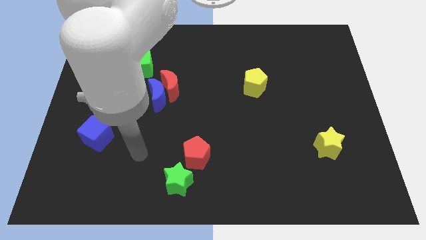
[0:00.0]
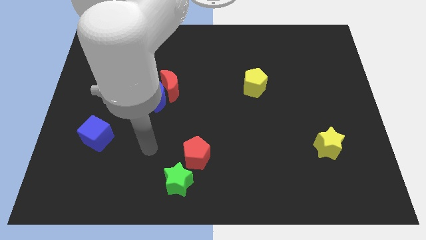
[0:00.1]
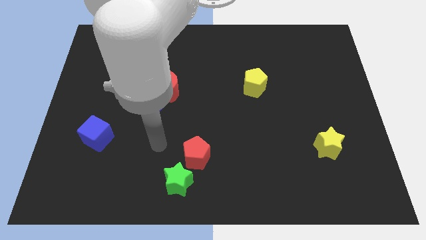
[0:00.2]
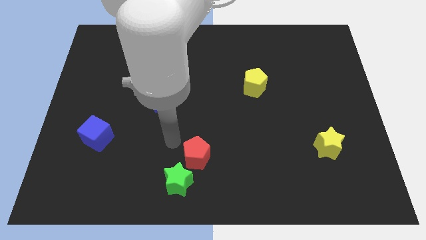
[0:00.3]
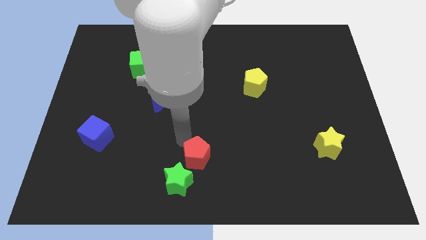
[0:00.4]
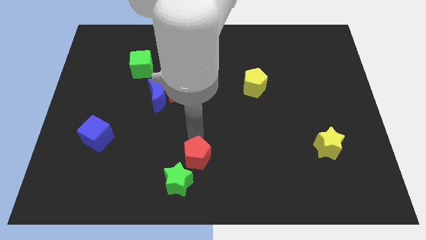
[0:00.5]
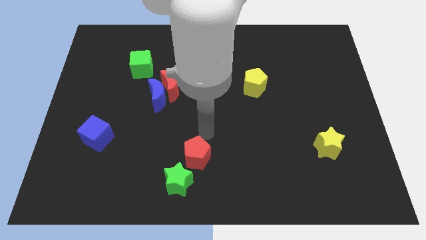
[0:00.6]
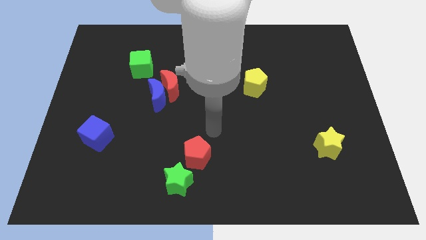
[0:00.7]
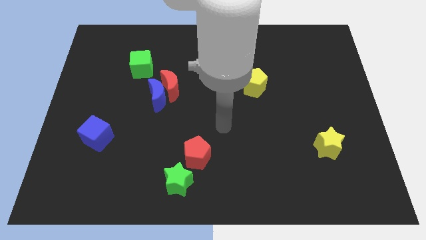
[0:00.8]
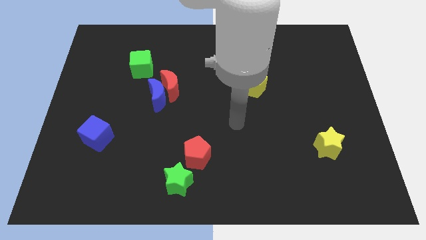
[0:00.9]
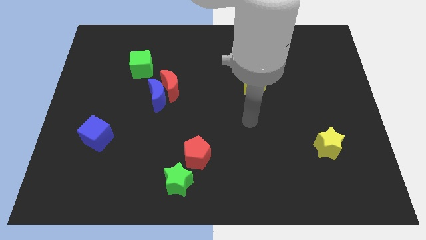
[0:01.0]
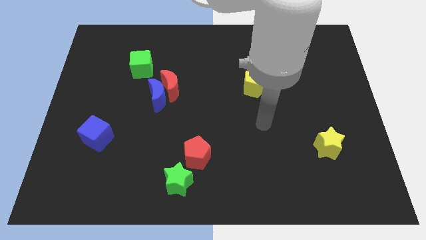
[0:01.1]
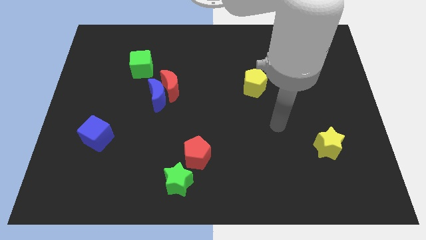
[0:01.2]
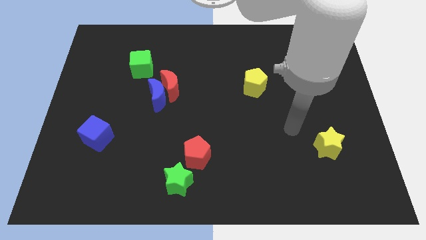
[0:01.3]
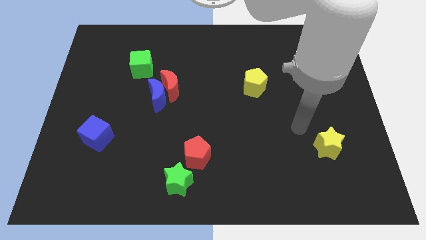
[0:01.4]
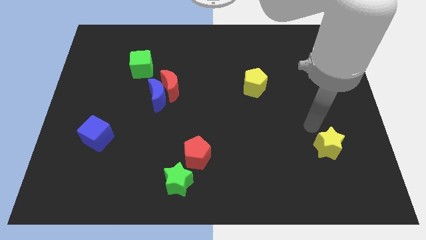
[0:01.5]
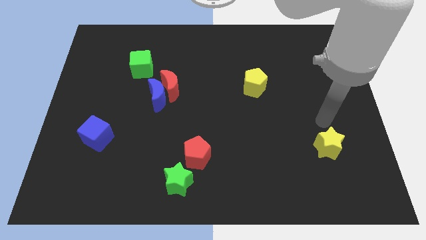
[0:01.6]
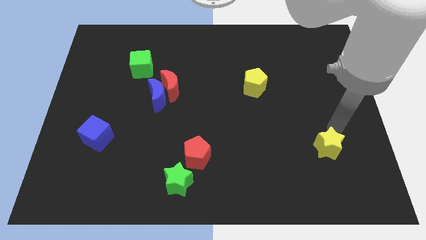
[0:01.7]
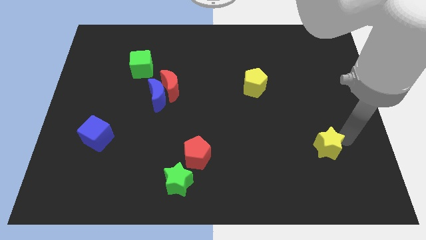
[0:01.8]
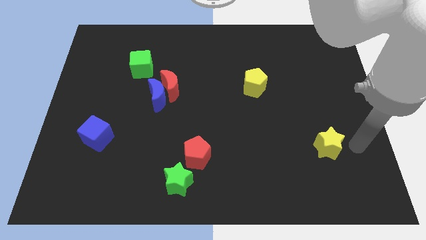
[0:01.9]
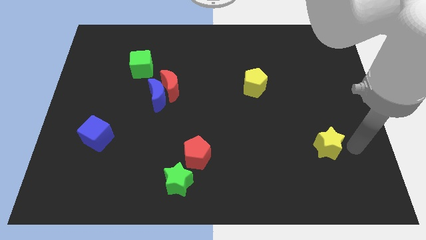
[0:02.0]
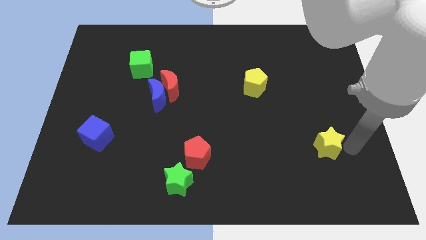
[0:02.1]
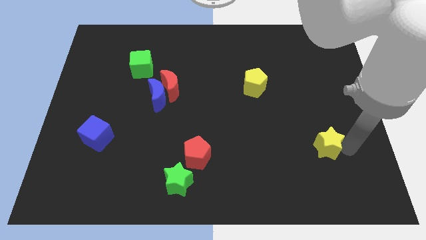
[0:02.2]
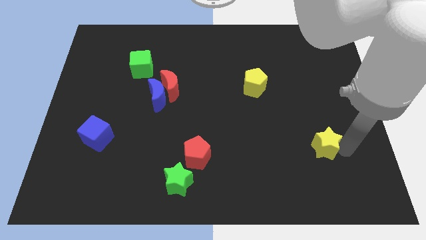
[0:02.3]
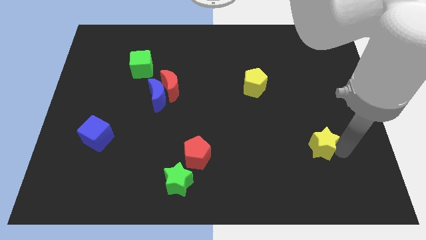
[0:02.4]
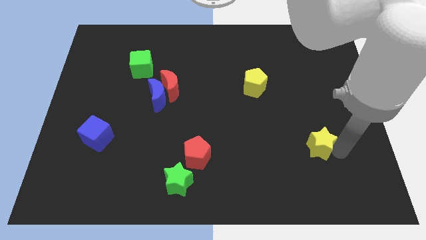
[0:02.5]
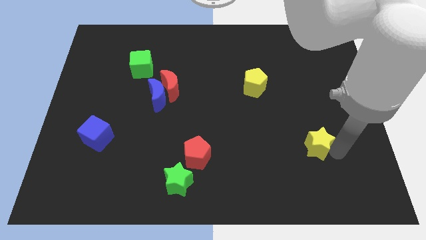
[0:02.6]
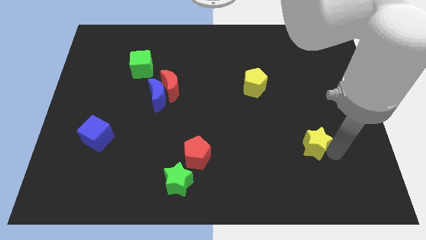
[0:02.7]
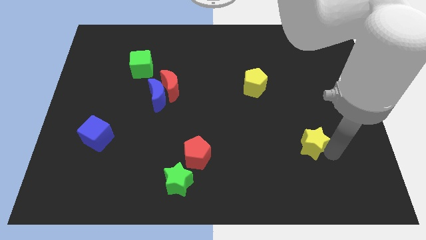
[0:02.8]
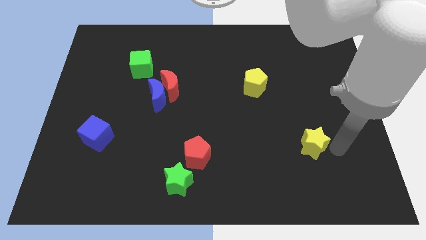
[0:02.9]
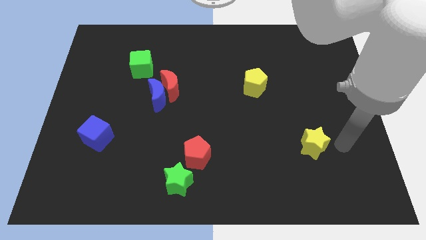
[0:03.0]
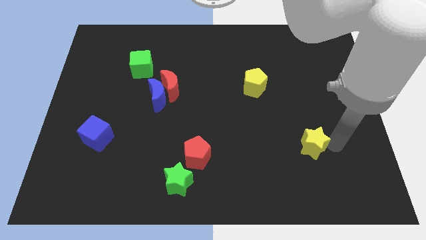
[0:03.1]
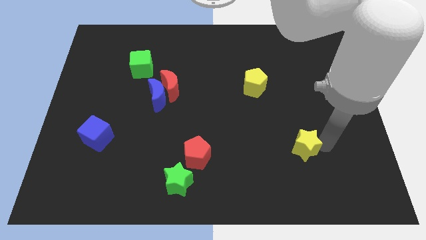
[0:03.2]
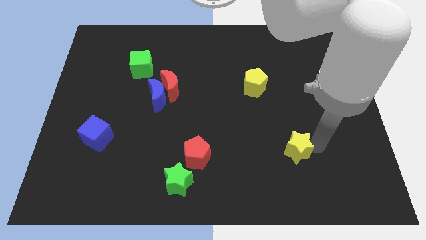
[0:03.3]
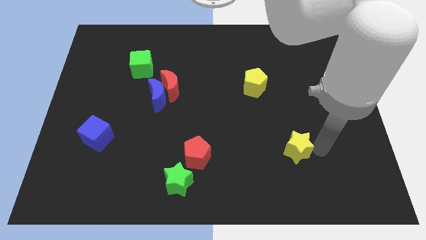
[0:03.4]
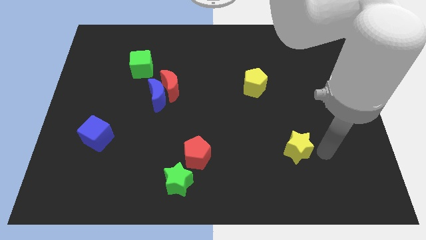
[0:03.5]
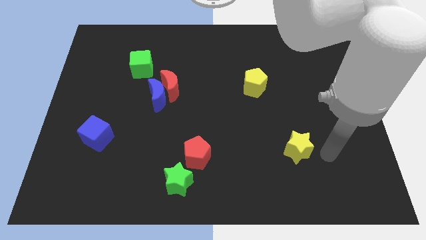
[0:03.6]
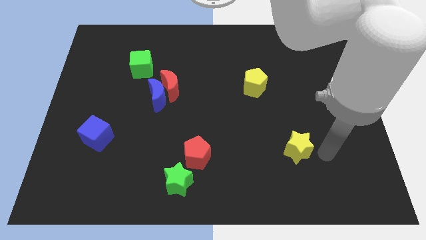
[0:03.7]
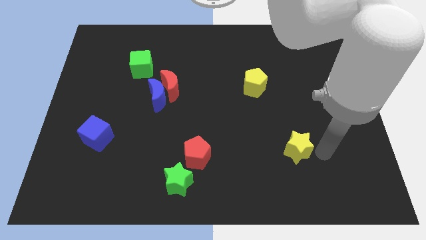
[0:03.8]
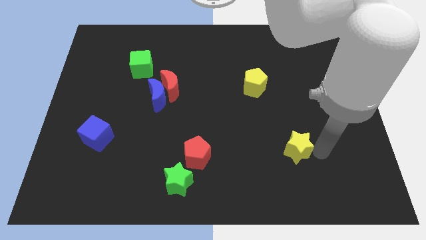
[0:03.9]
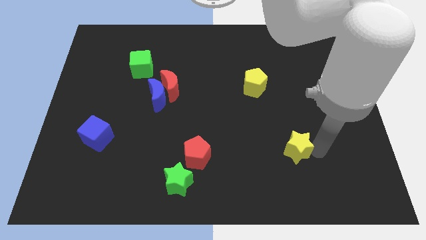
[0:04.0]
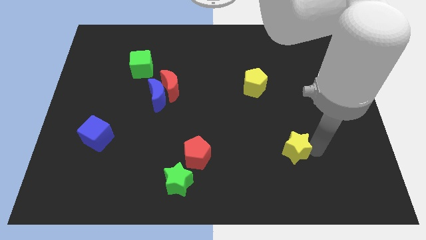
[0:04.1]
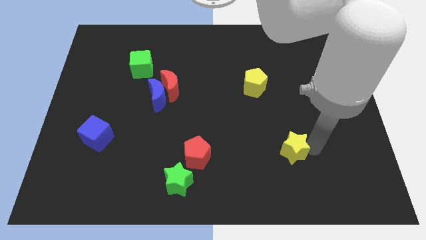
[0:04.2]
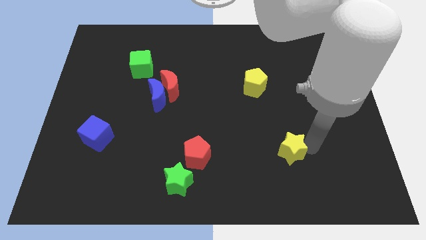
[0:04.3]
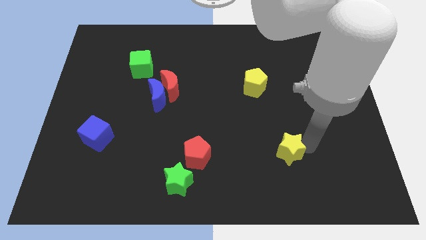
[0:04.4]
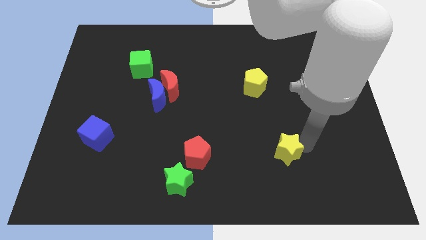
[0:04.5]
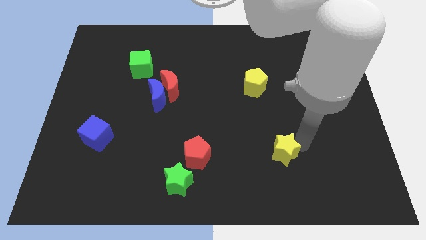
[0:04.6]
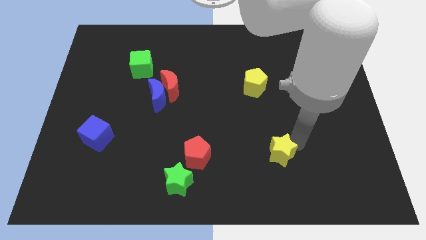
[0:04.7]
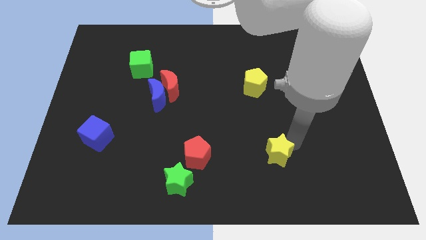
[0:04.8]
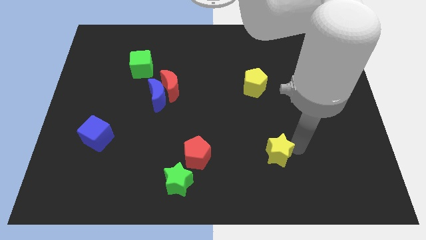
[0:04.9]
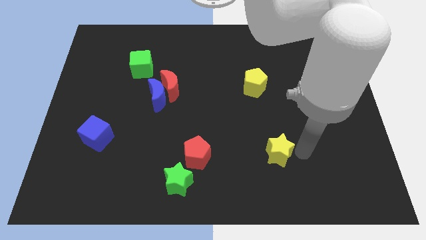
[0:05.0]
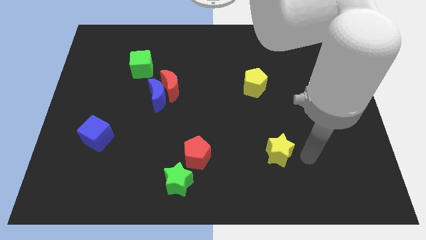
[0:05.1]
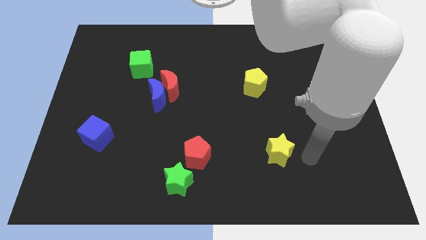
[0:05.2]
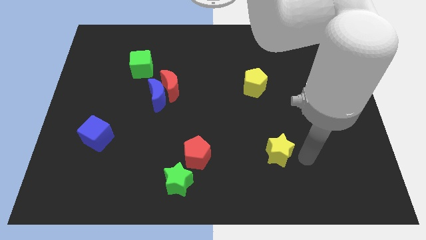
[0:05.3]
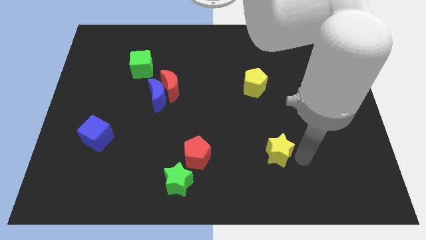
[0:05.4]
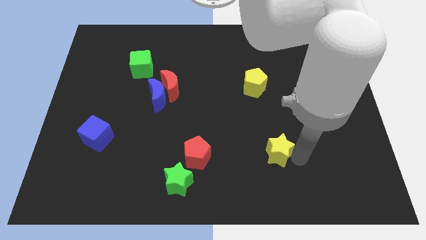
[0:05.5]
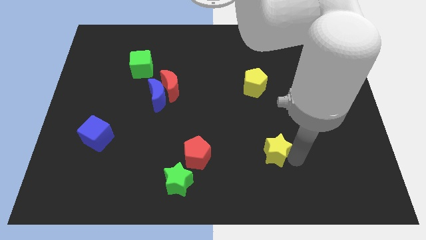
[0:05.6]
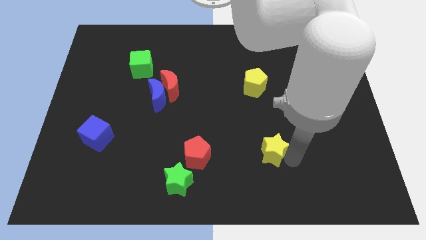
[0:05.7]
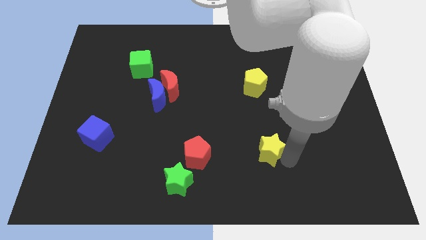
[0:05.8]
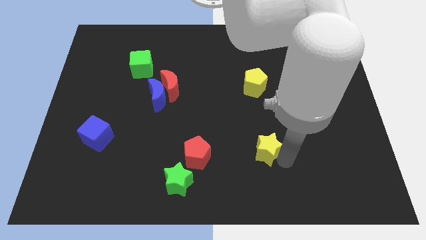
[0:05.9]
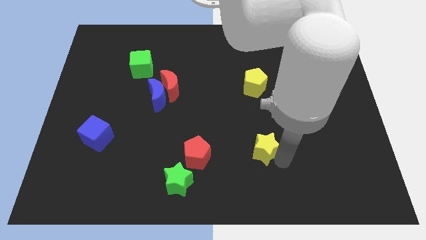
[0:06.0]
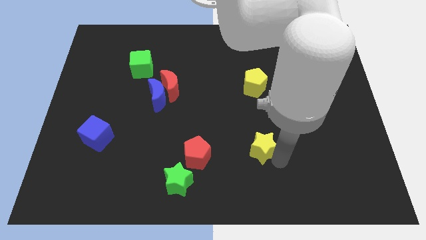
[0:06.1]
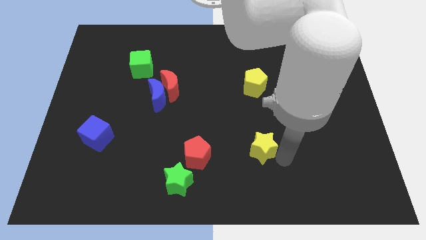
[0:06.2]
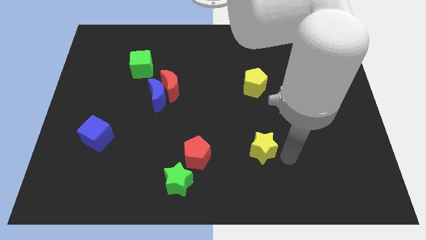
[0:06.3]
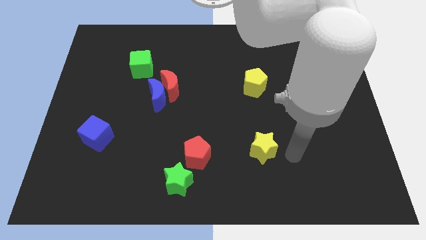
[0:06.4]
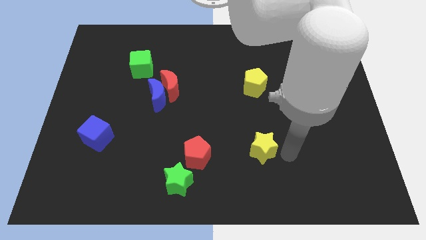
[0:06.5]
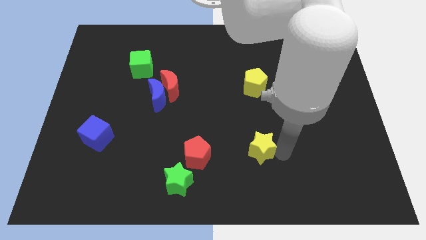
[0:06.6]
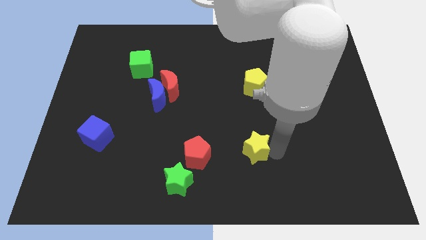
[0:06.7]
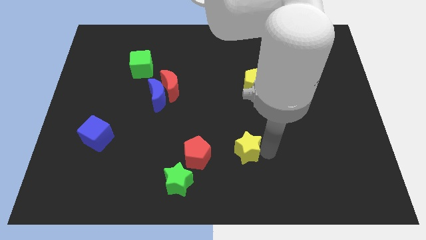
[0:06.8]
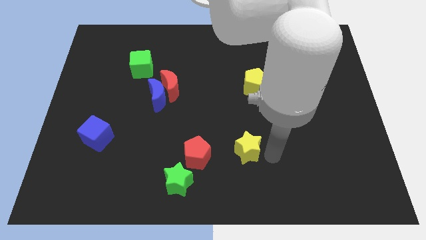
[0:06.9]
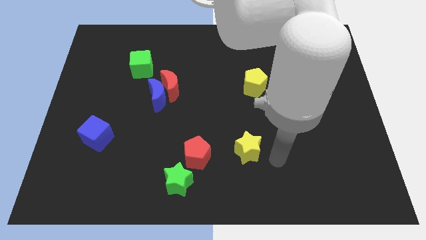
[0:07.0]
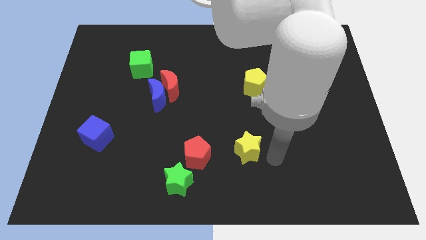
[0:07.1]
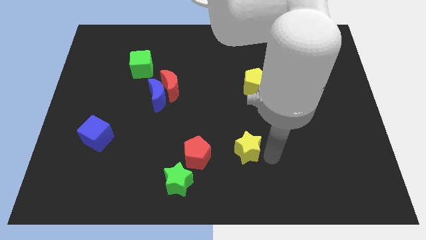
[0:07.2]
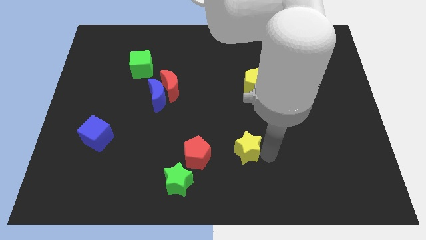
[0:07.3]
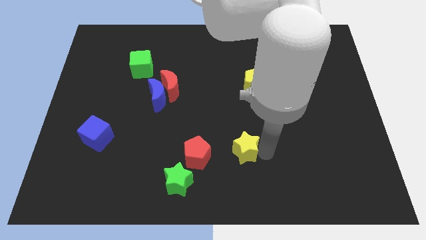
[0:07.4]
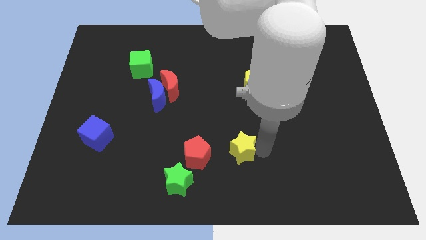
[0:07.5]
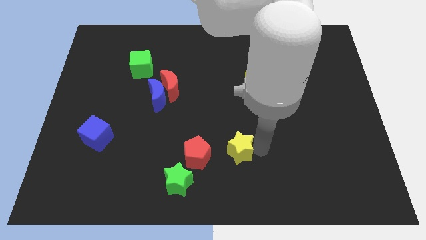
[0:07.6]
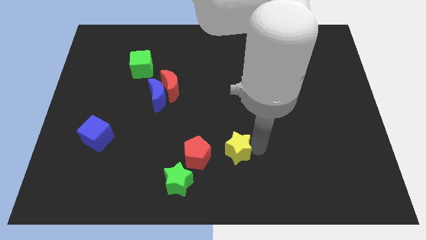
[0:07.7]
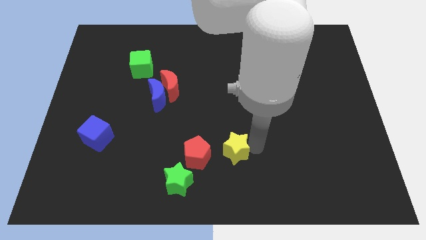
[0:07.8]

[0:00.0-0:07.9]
move the yellow star to the left
